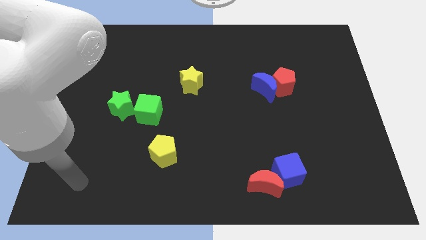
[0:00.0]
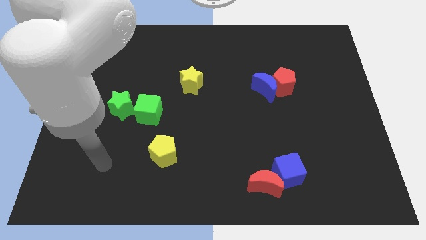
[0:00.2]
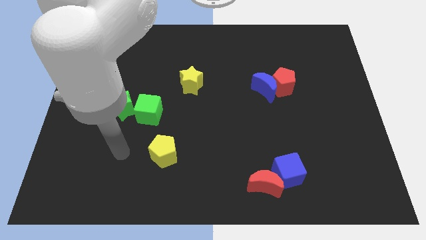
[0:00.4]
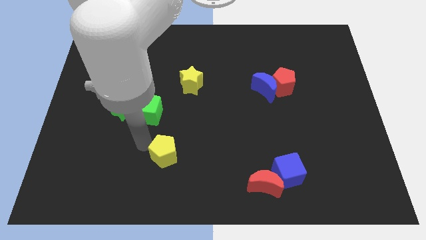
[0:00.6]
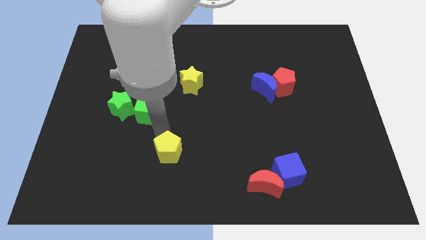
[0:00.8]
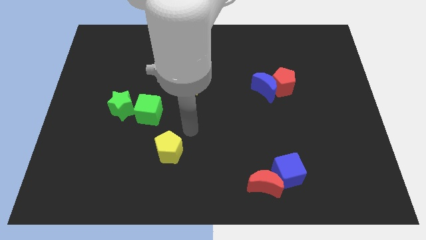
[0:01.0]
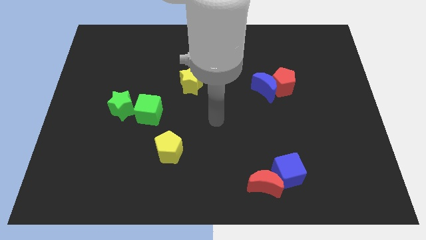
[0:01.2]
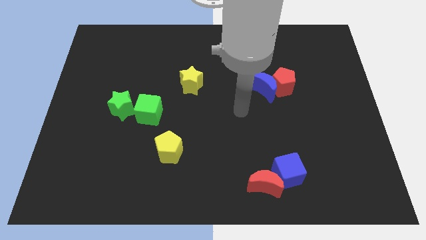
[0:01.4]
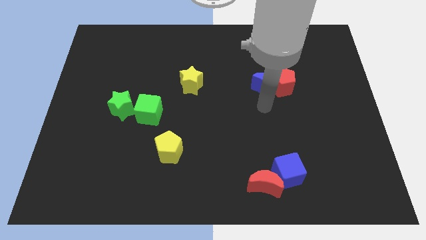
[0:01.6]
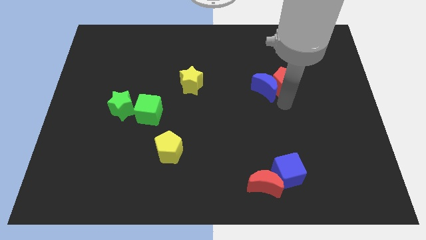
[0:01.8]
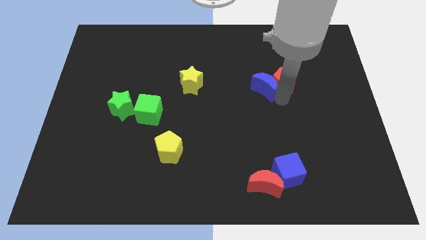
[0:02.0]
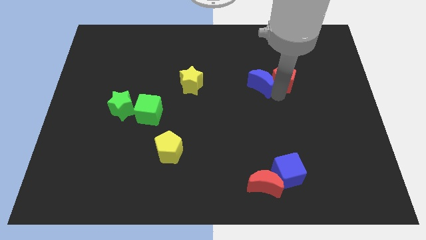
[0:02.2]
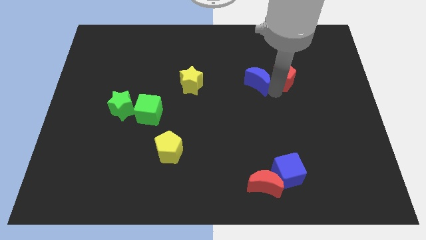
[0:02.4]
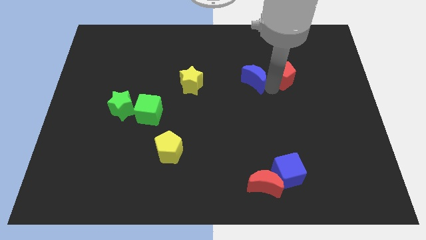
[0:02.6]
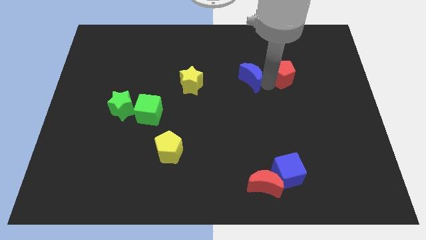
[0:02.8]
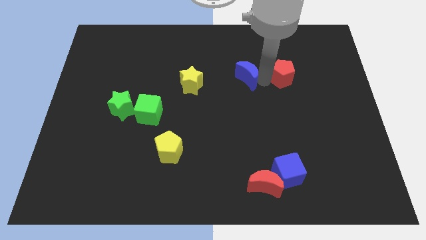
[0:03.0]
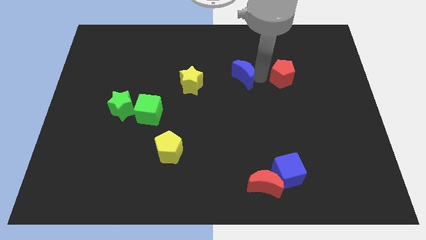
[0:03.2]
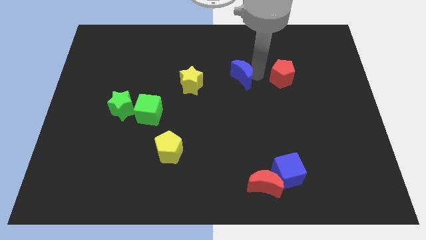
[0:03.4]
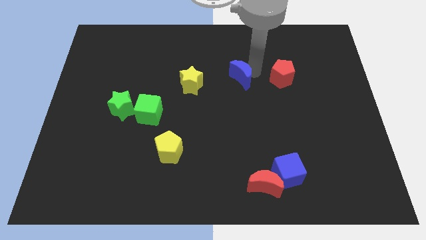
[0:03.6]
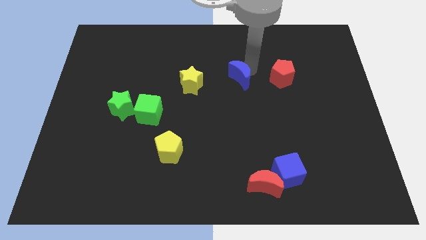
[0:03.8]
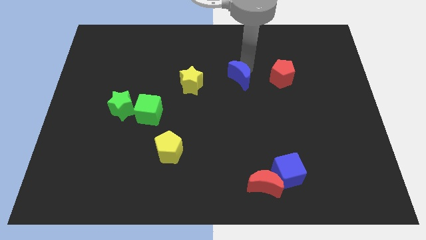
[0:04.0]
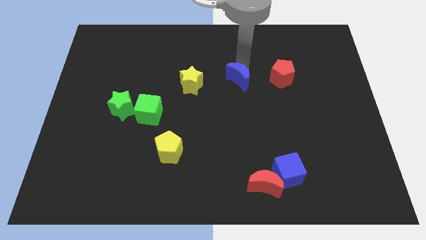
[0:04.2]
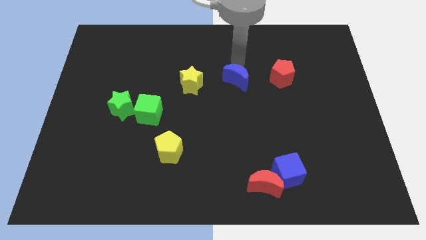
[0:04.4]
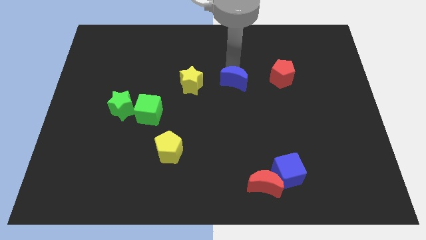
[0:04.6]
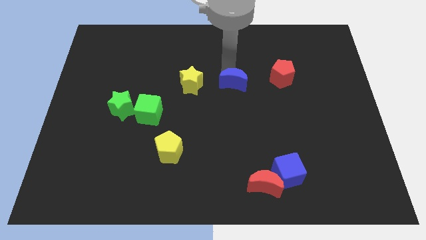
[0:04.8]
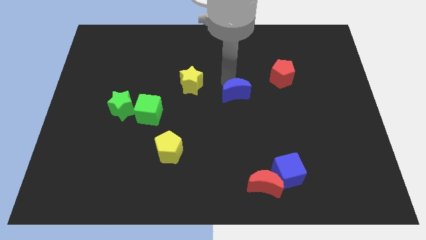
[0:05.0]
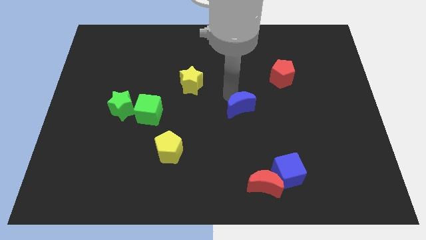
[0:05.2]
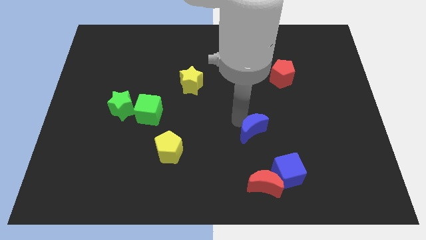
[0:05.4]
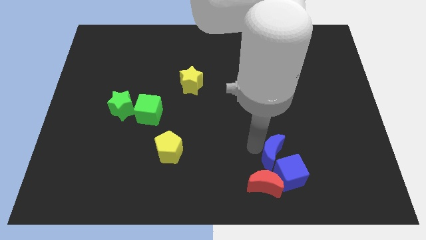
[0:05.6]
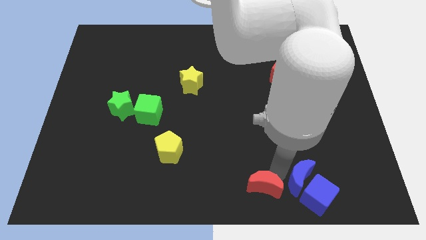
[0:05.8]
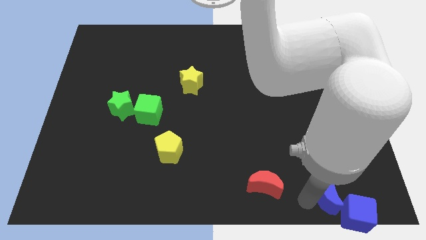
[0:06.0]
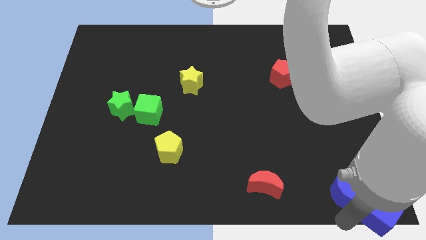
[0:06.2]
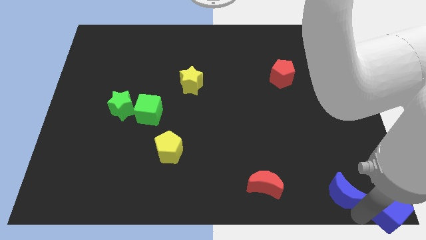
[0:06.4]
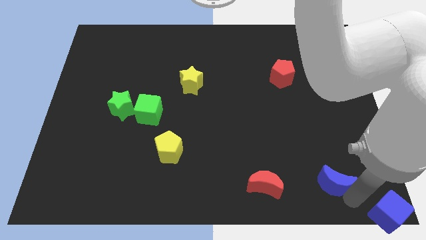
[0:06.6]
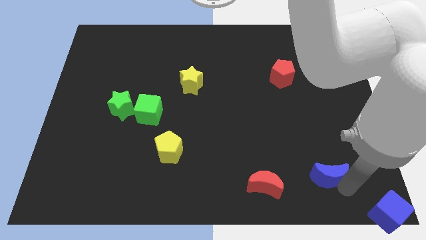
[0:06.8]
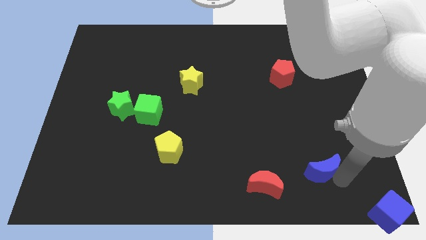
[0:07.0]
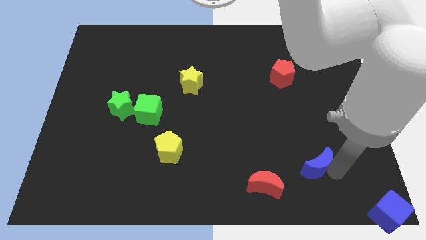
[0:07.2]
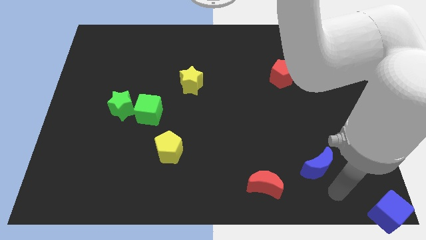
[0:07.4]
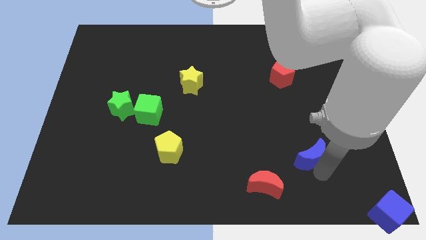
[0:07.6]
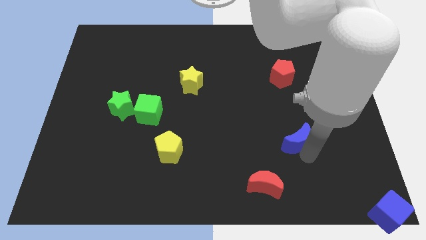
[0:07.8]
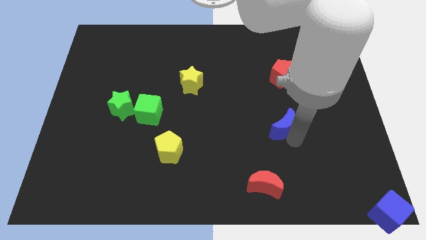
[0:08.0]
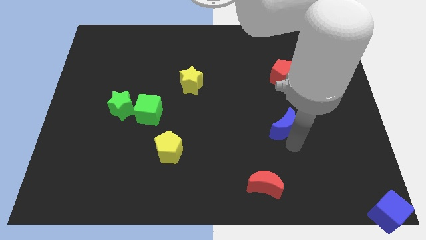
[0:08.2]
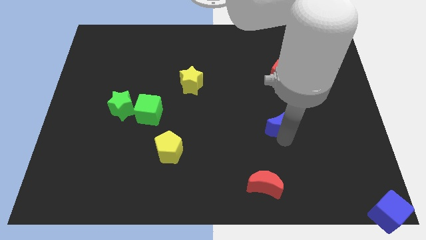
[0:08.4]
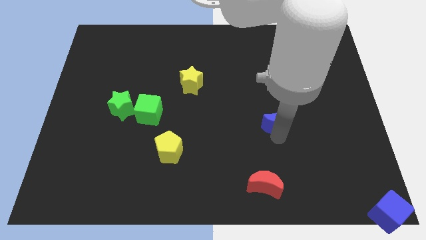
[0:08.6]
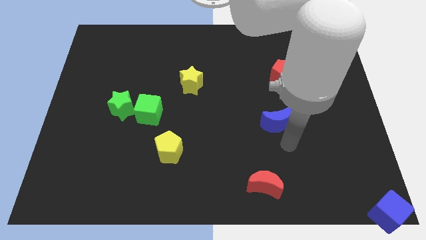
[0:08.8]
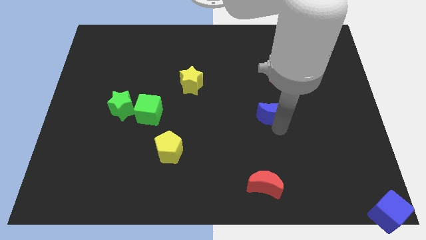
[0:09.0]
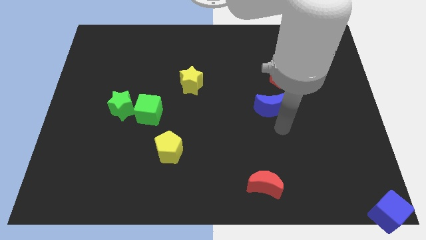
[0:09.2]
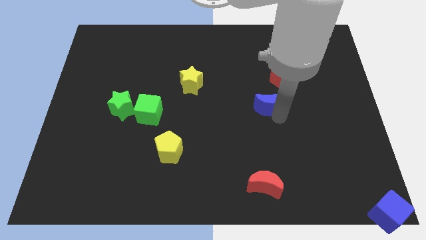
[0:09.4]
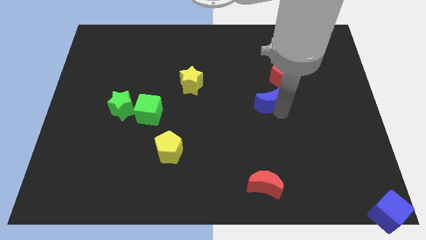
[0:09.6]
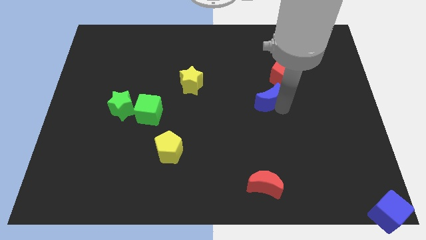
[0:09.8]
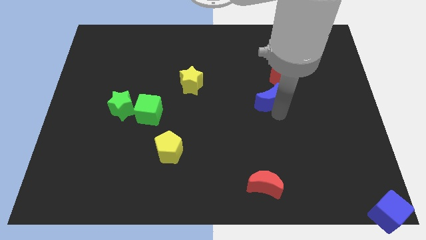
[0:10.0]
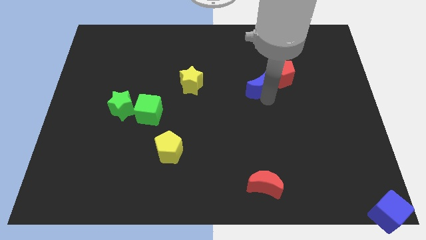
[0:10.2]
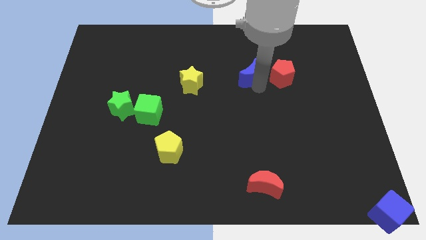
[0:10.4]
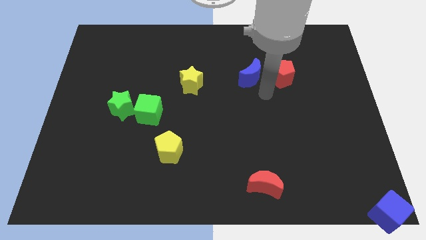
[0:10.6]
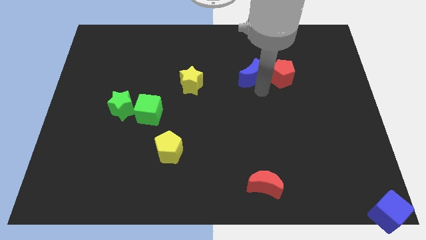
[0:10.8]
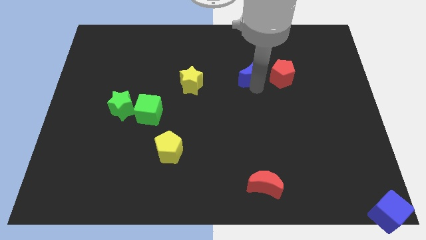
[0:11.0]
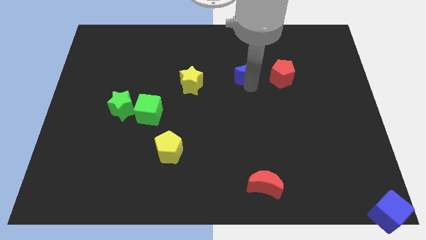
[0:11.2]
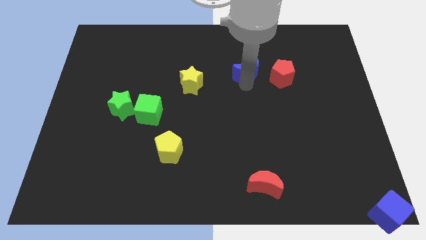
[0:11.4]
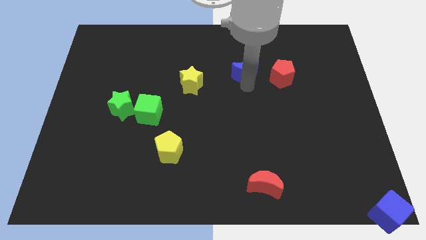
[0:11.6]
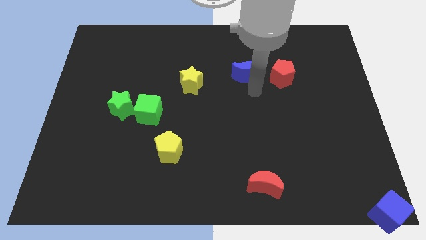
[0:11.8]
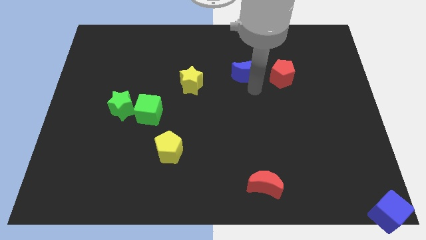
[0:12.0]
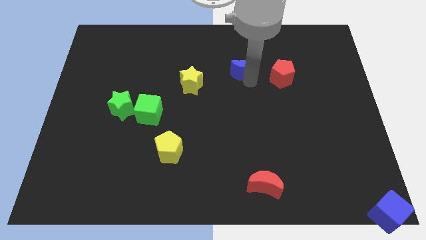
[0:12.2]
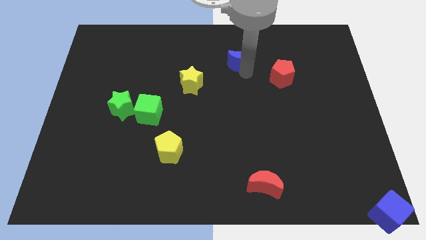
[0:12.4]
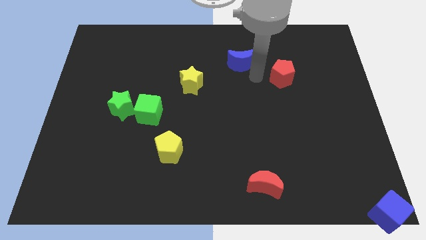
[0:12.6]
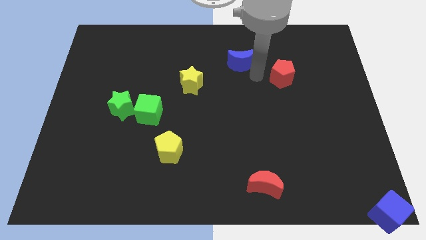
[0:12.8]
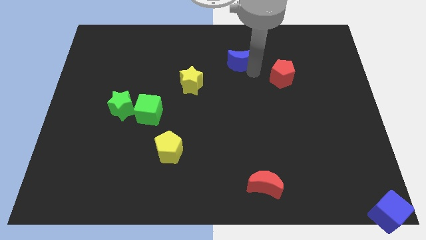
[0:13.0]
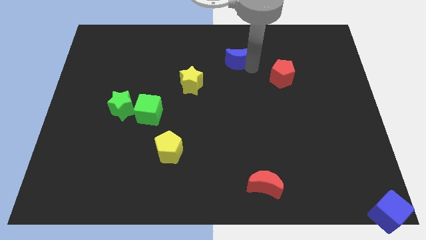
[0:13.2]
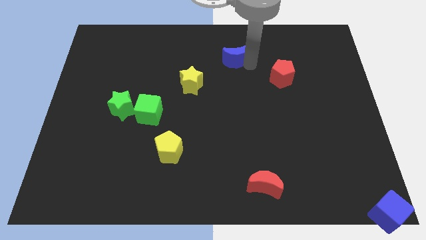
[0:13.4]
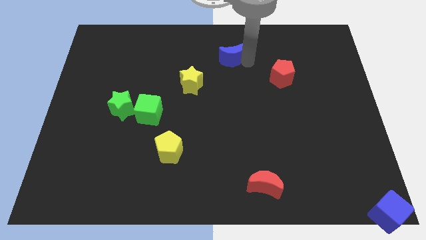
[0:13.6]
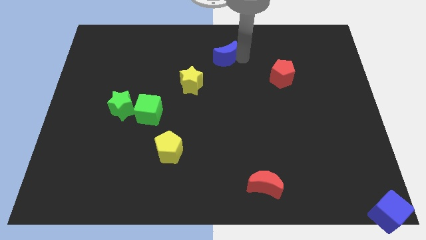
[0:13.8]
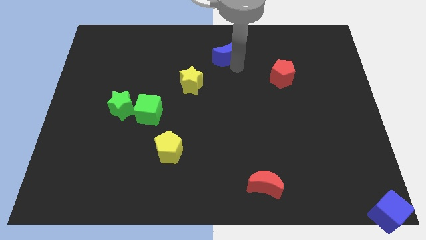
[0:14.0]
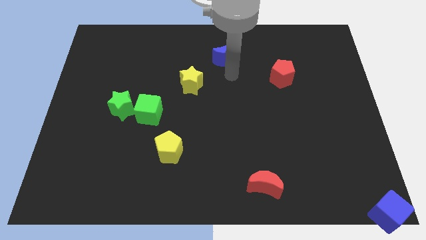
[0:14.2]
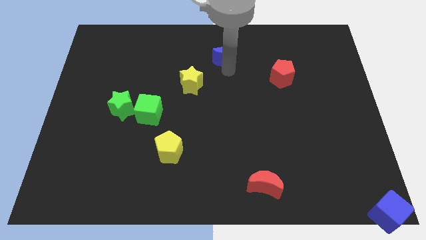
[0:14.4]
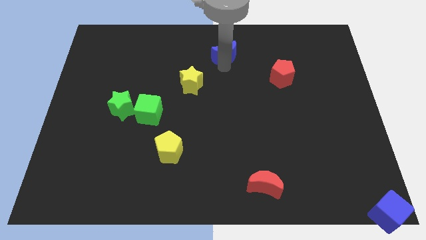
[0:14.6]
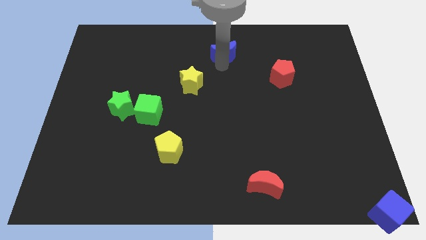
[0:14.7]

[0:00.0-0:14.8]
push the blue moon to the top
